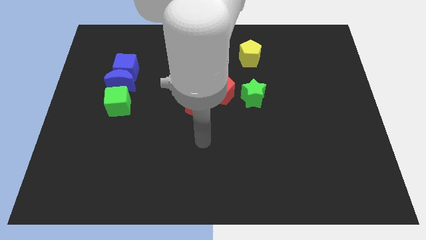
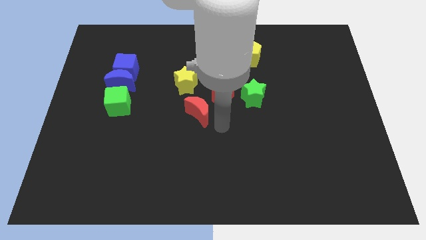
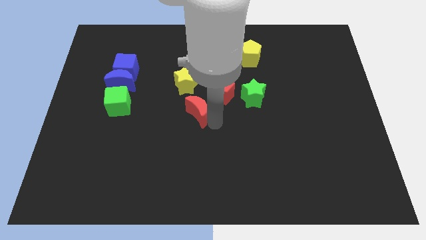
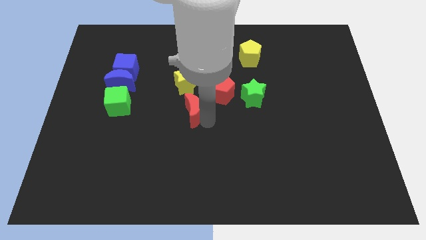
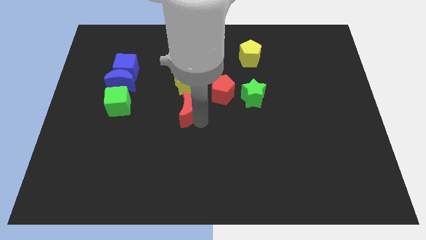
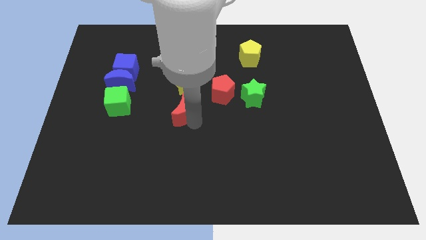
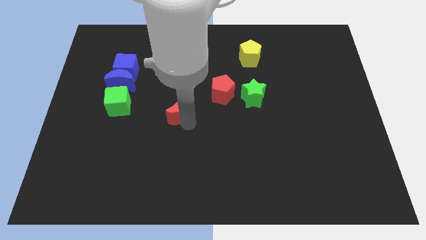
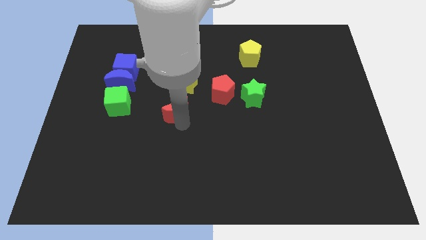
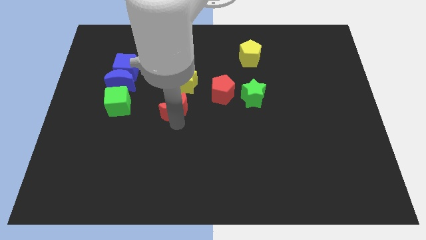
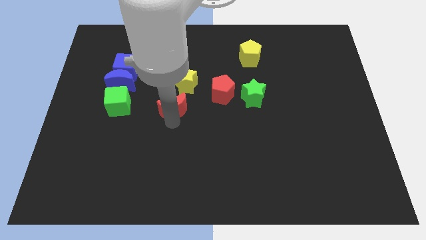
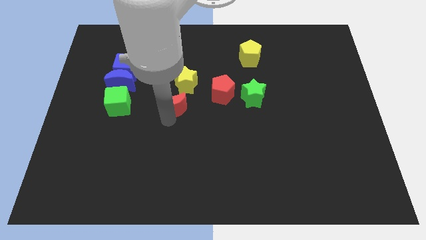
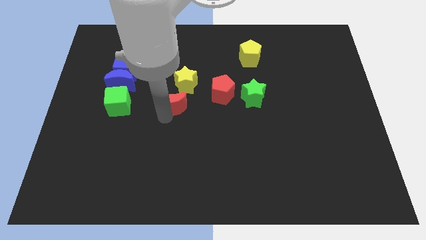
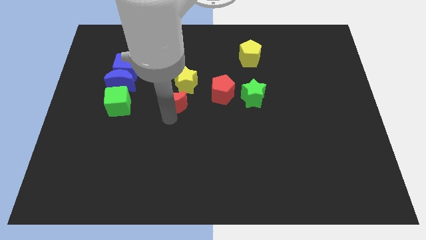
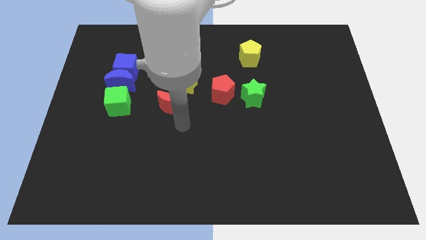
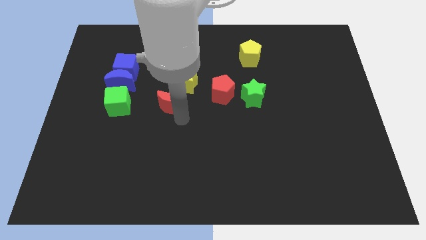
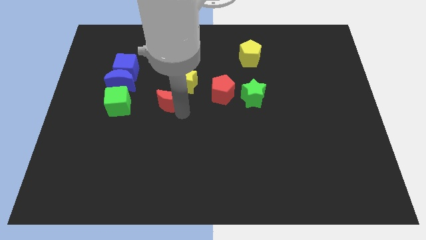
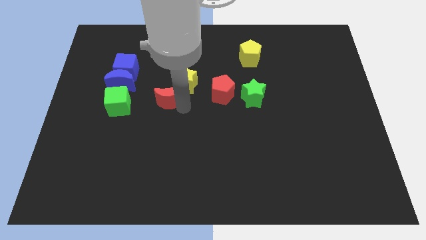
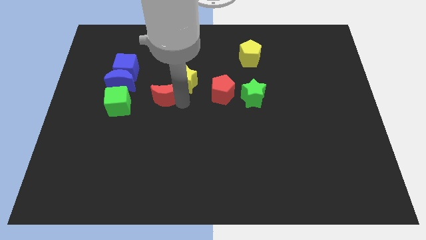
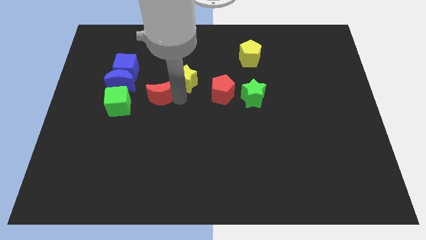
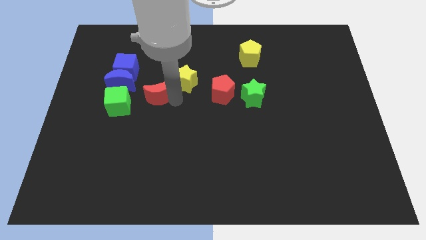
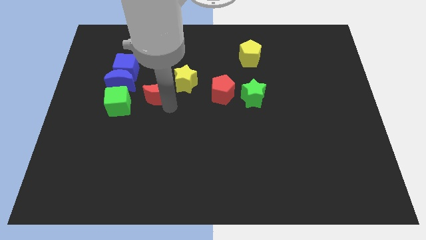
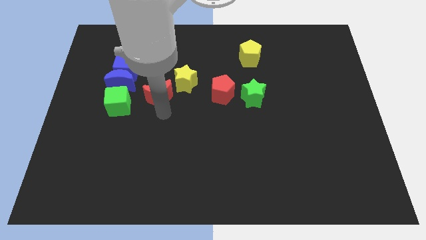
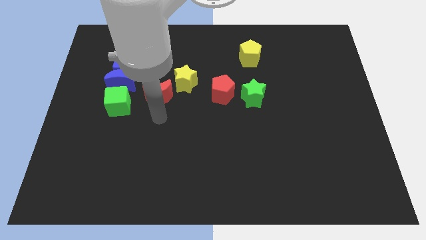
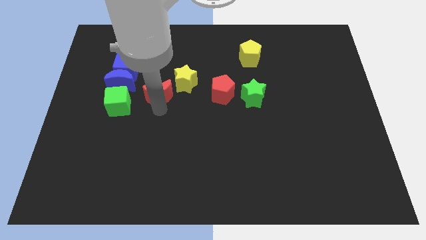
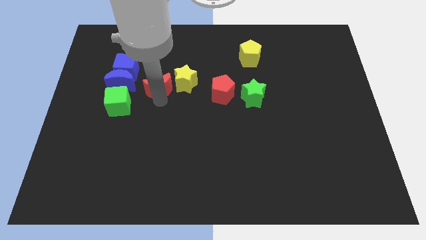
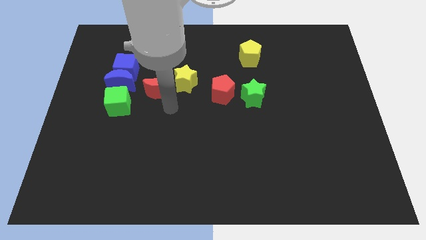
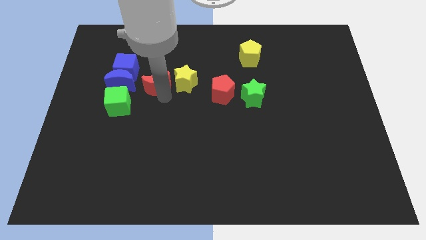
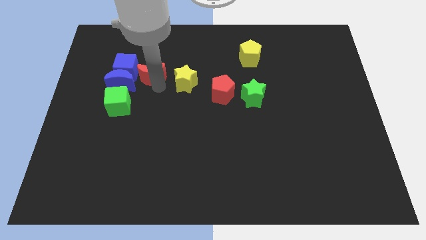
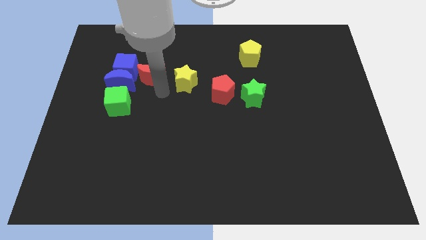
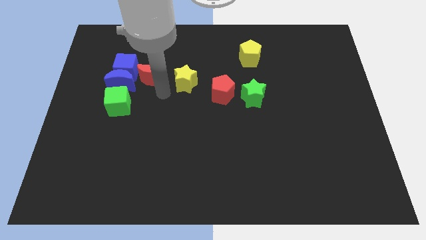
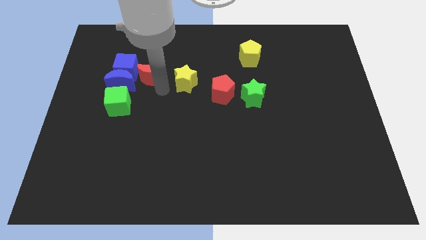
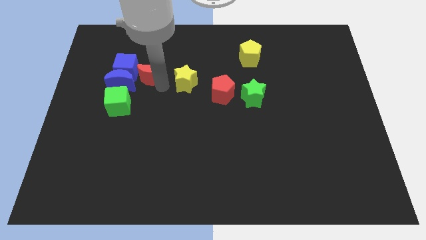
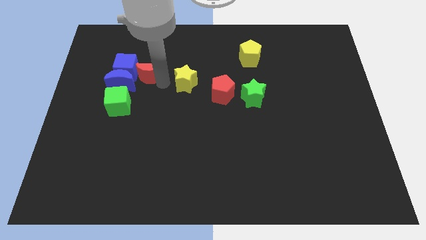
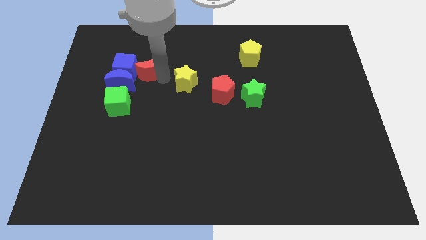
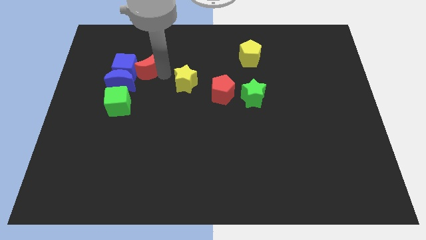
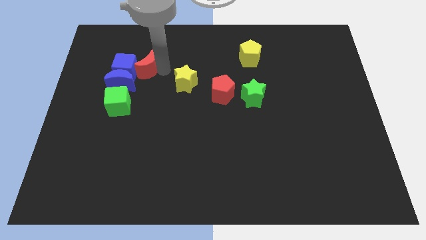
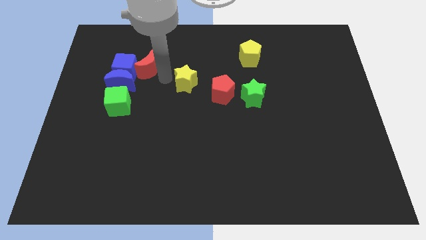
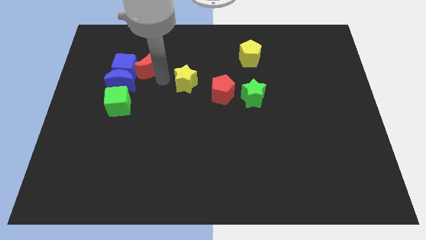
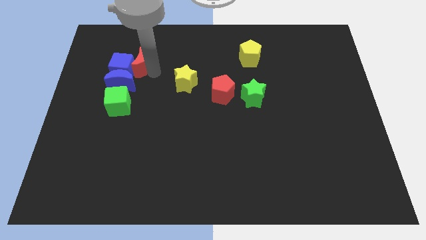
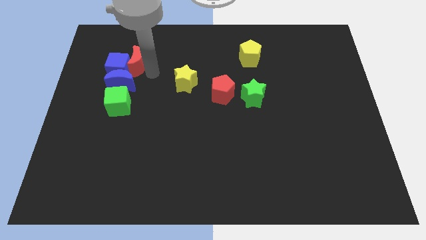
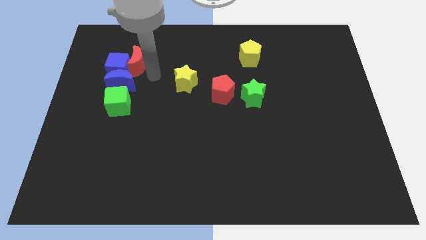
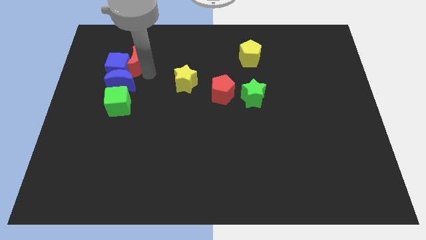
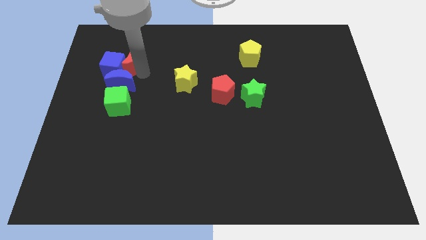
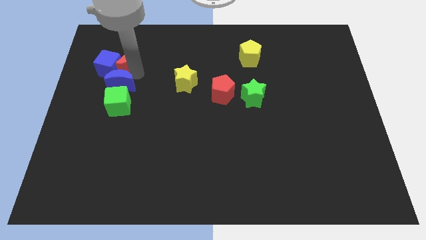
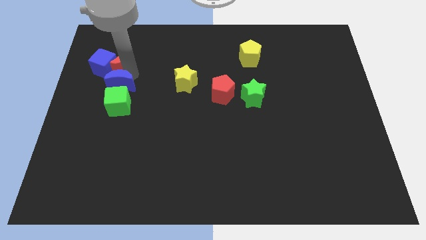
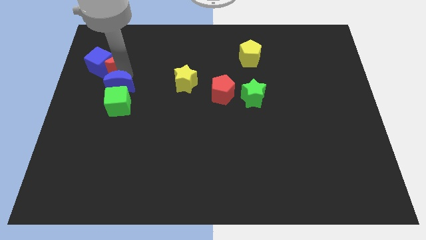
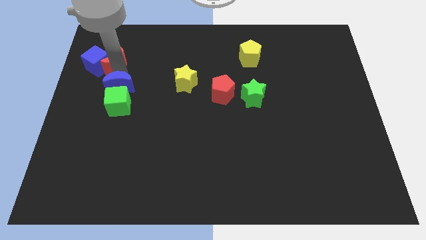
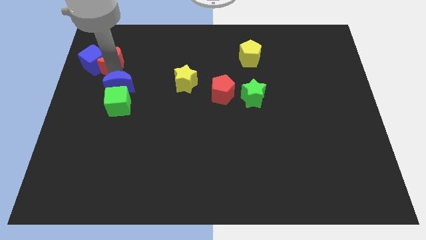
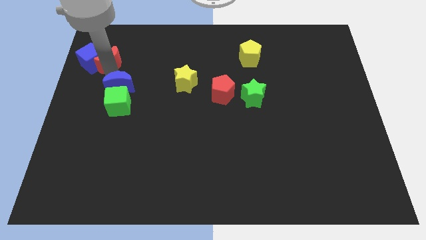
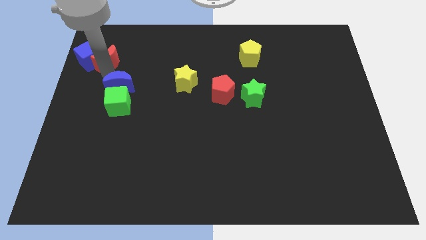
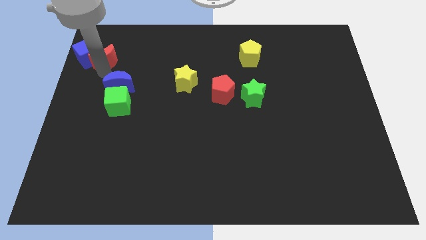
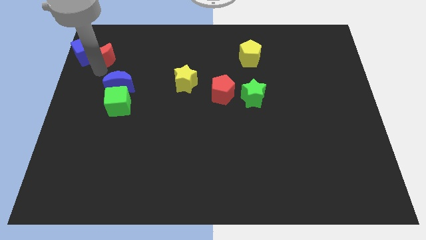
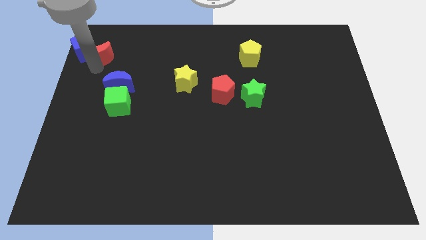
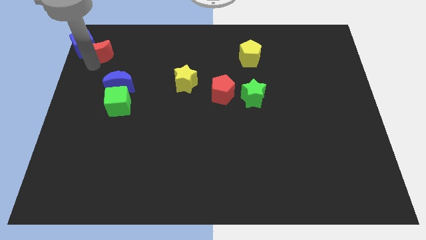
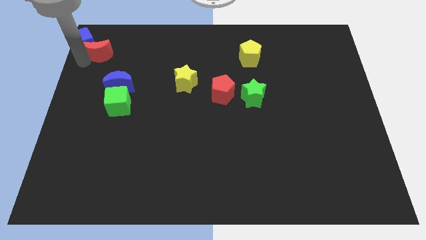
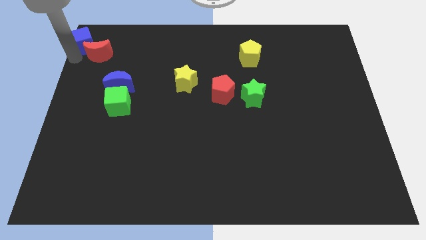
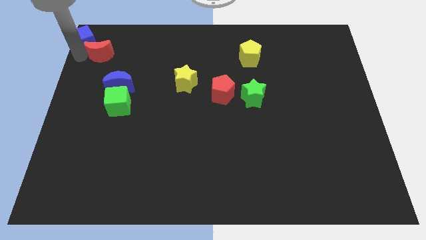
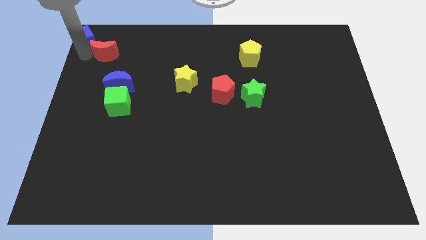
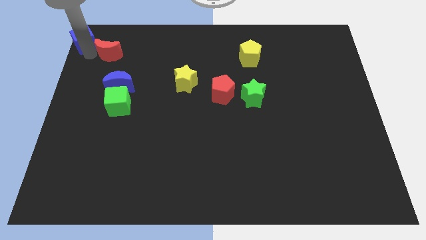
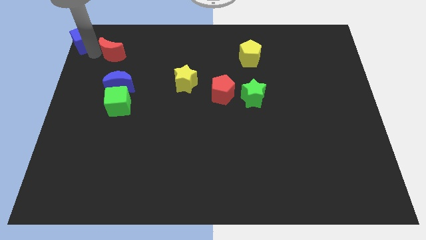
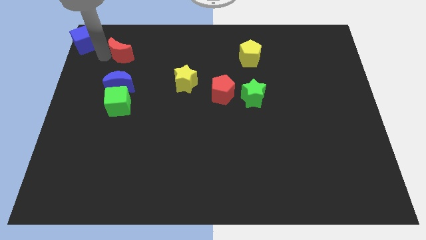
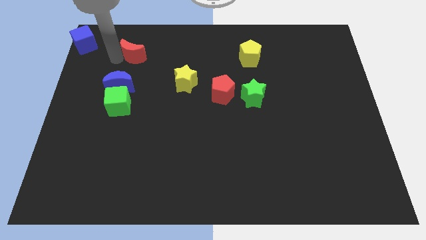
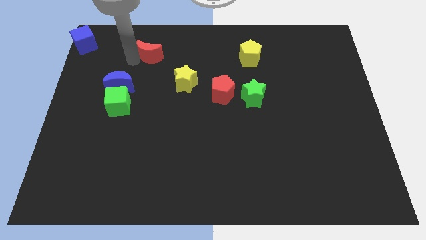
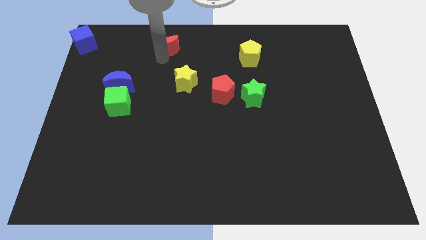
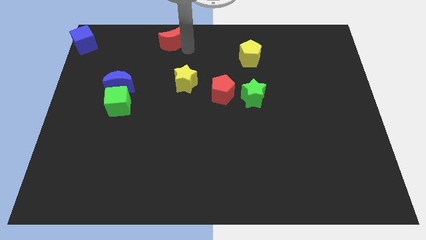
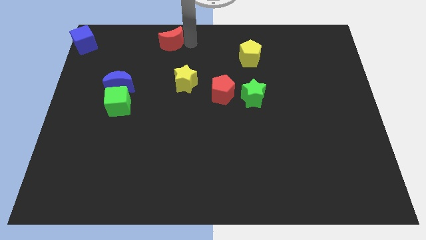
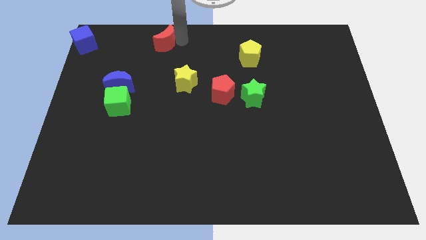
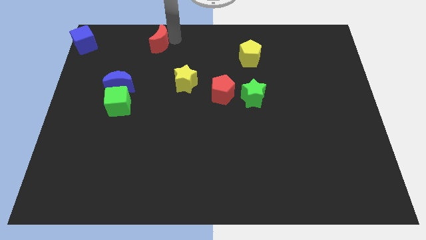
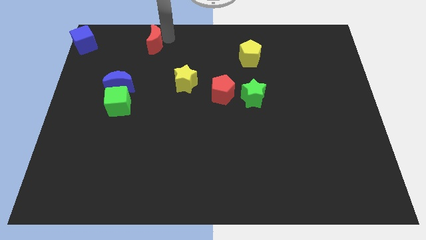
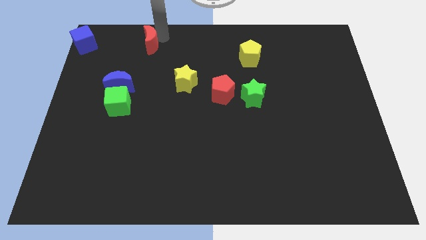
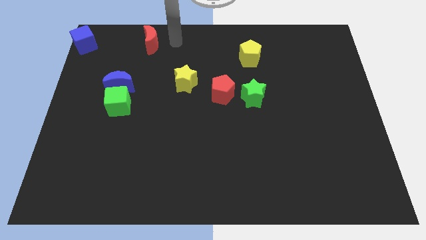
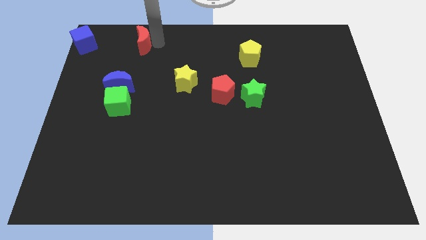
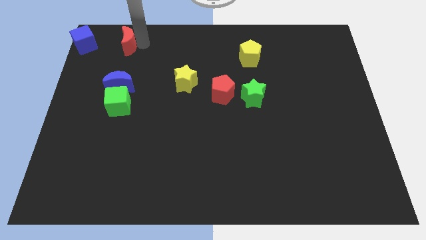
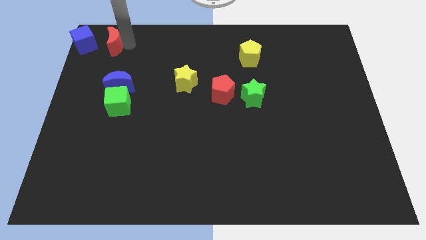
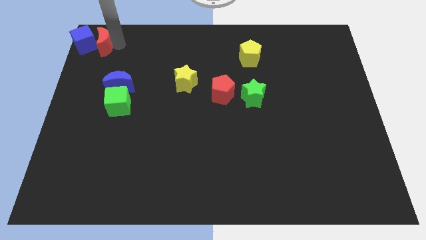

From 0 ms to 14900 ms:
push the red moon to the top left
